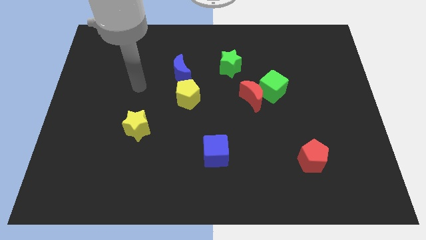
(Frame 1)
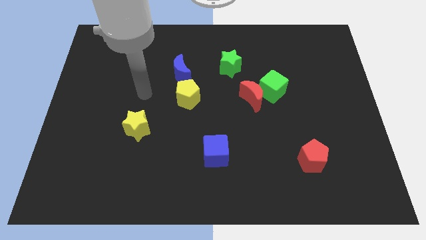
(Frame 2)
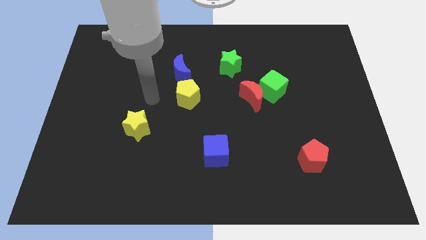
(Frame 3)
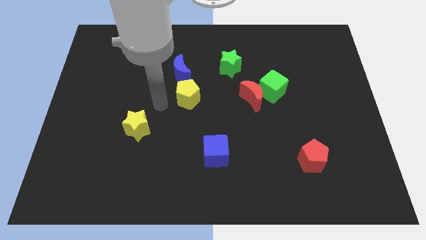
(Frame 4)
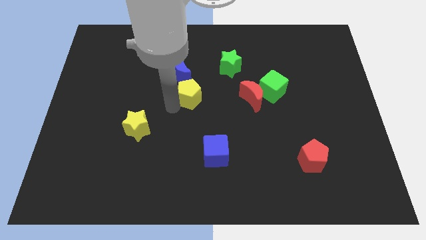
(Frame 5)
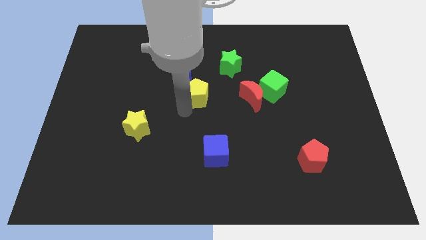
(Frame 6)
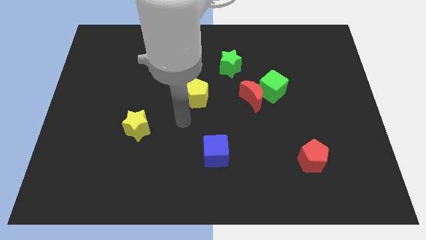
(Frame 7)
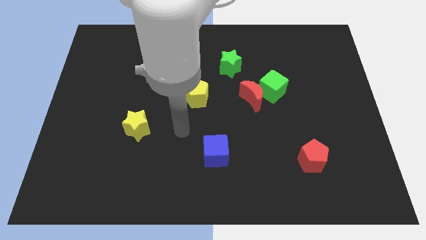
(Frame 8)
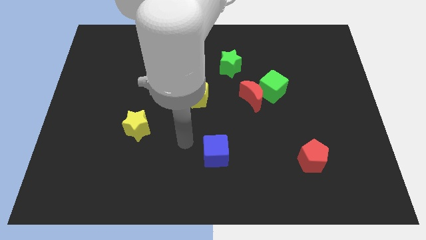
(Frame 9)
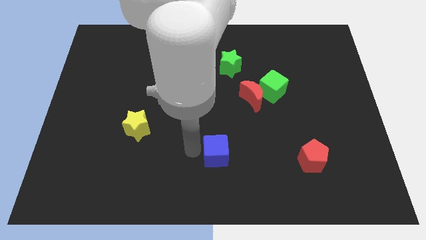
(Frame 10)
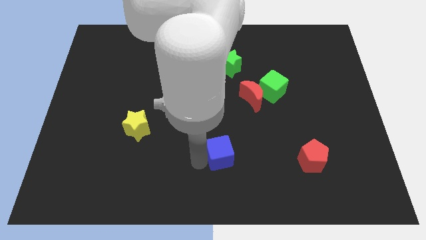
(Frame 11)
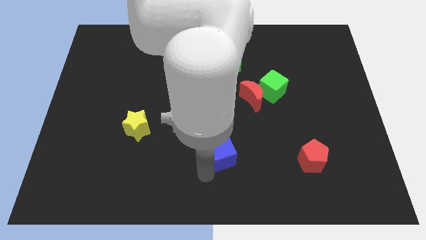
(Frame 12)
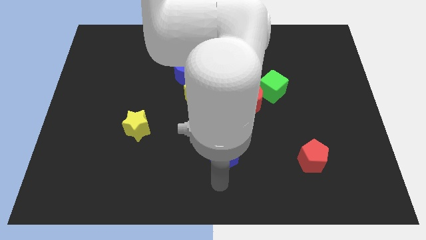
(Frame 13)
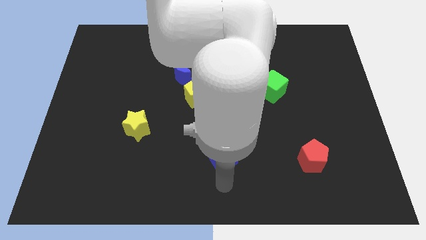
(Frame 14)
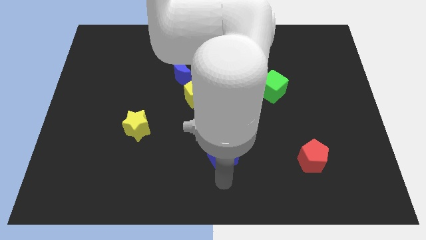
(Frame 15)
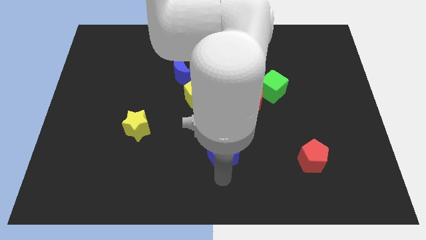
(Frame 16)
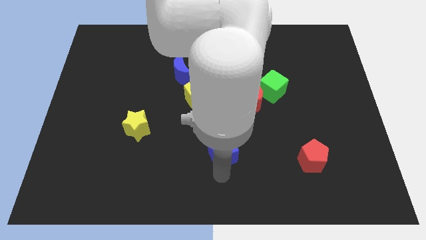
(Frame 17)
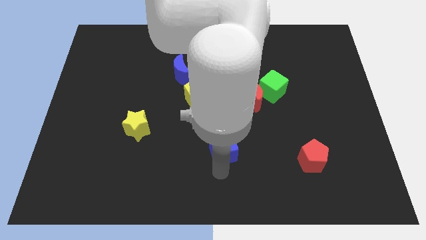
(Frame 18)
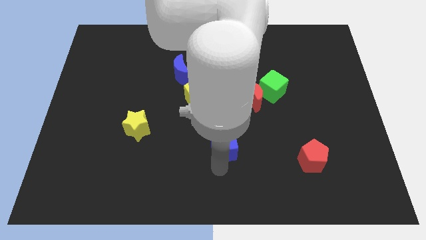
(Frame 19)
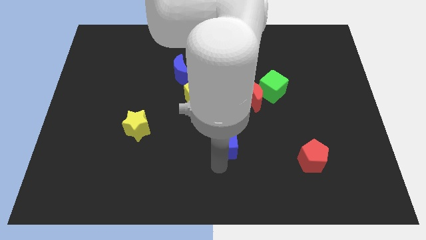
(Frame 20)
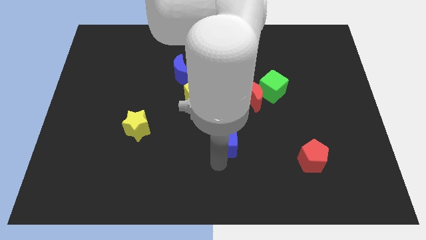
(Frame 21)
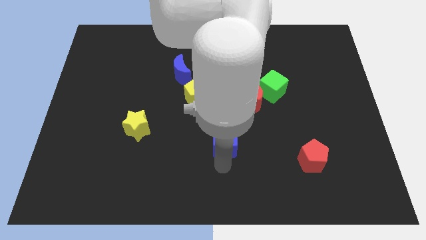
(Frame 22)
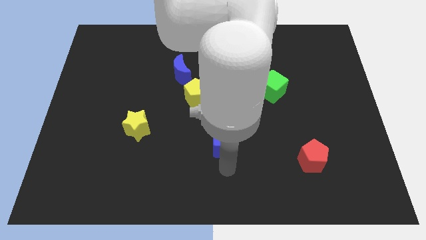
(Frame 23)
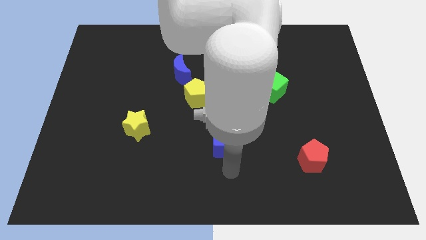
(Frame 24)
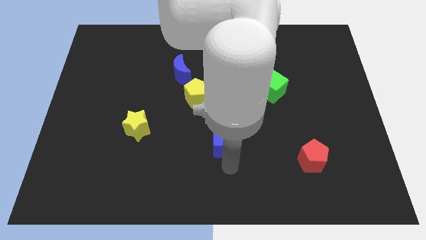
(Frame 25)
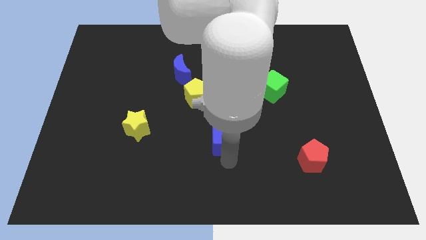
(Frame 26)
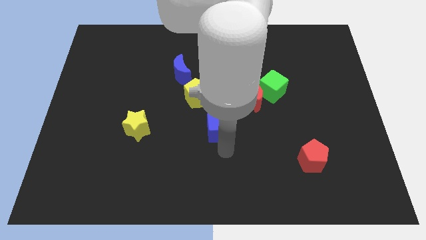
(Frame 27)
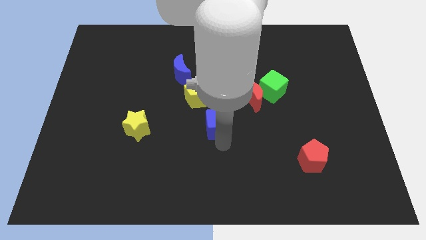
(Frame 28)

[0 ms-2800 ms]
slightly move the blue cube up

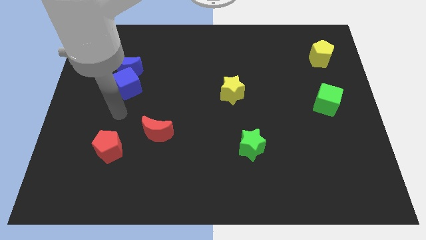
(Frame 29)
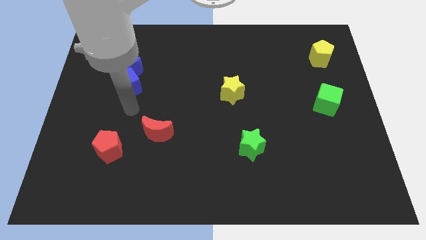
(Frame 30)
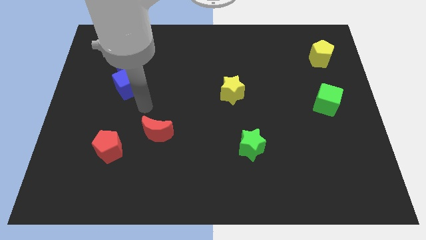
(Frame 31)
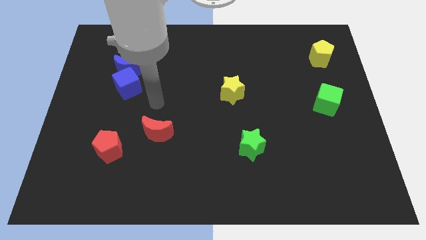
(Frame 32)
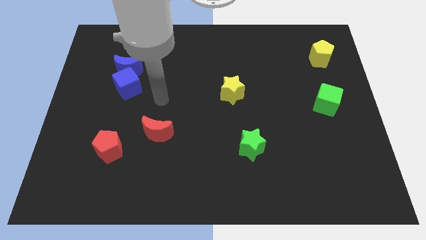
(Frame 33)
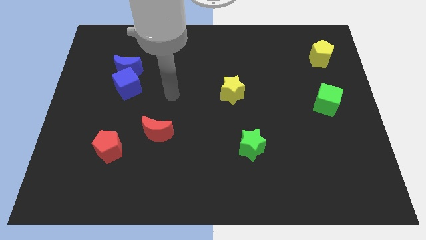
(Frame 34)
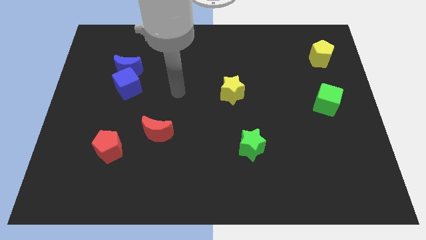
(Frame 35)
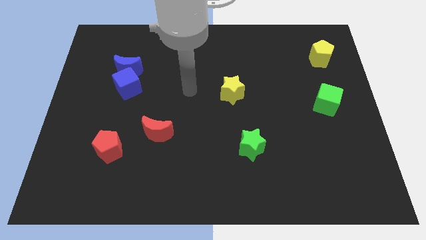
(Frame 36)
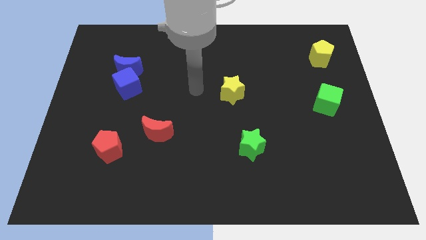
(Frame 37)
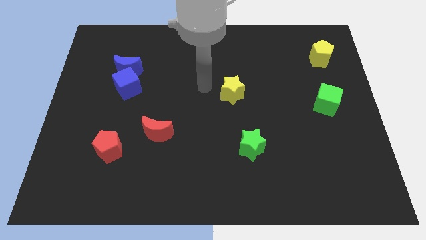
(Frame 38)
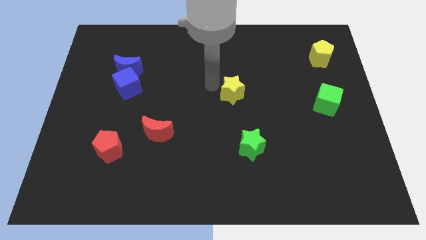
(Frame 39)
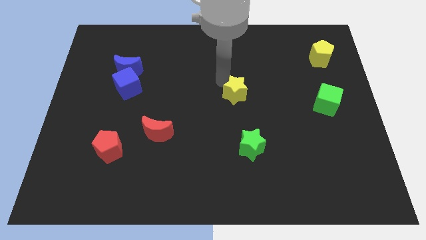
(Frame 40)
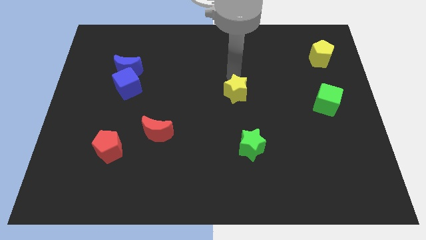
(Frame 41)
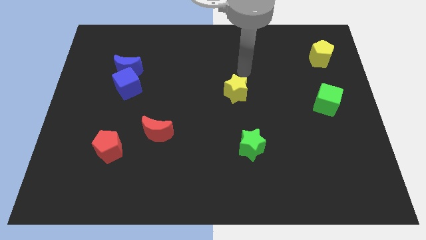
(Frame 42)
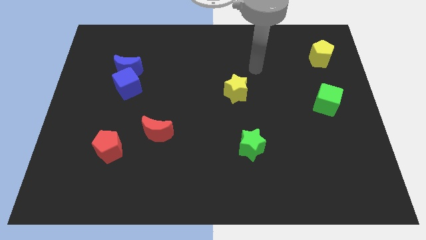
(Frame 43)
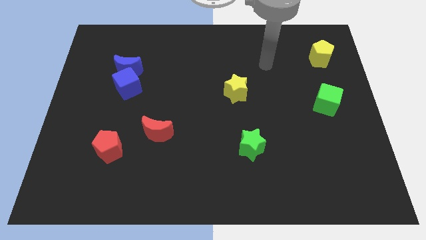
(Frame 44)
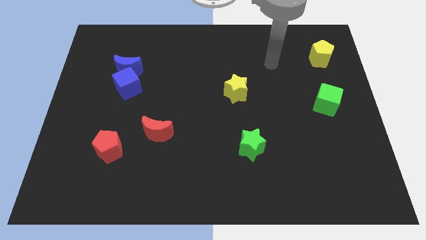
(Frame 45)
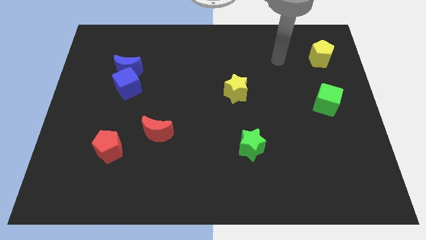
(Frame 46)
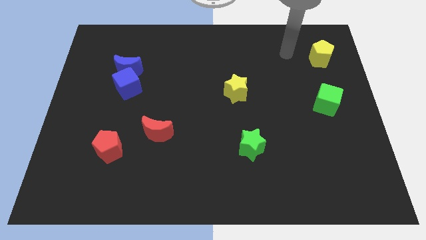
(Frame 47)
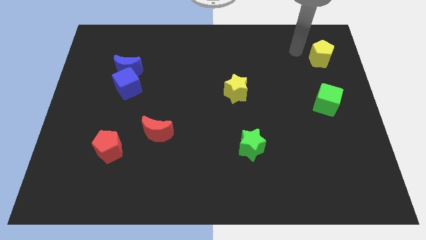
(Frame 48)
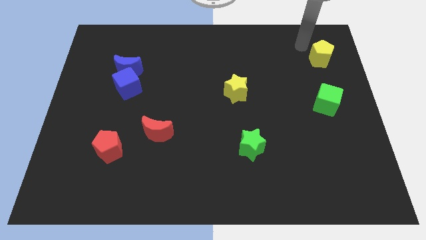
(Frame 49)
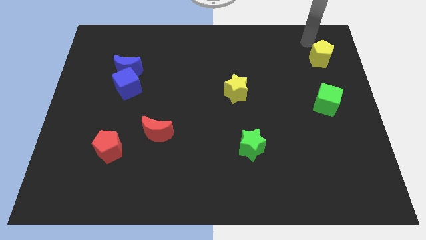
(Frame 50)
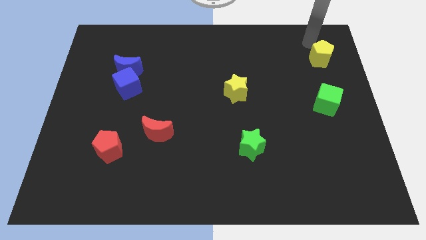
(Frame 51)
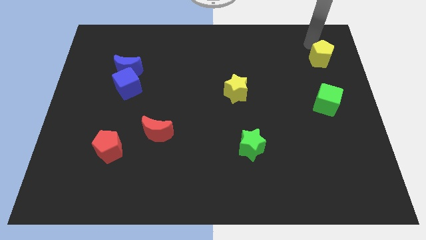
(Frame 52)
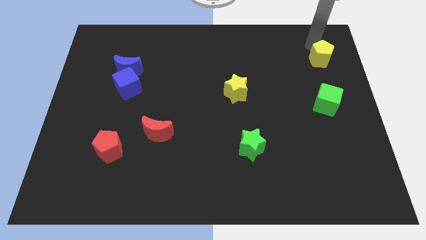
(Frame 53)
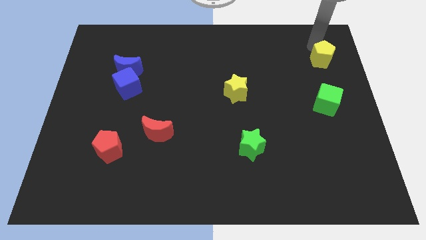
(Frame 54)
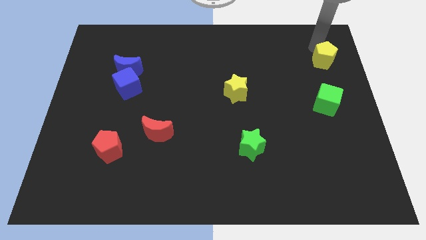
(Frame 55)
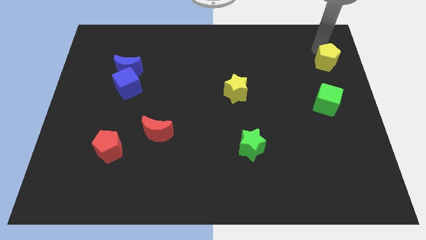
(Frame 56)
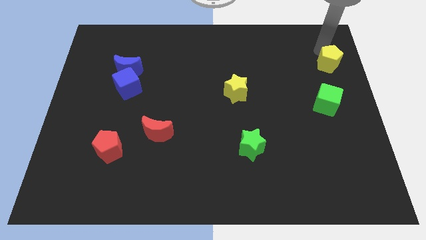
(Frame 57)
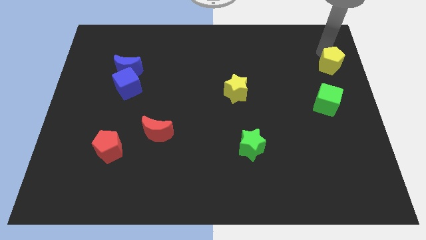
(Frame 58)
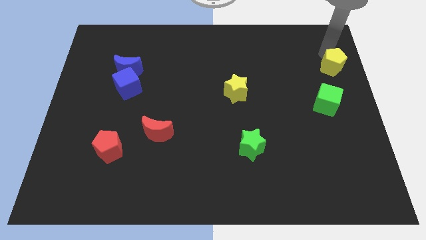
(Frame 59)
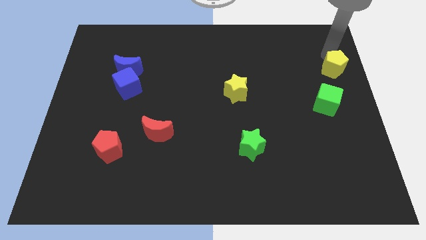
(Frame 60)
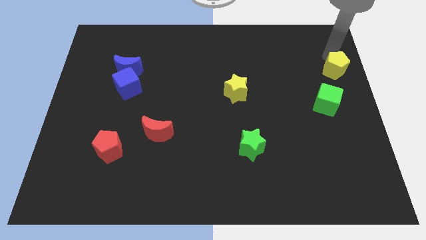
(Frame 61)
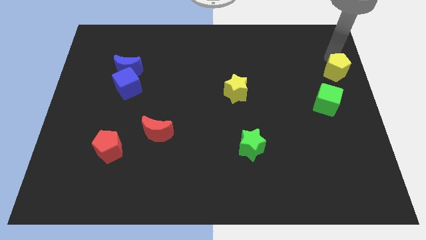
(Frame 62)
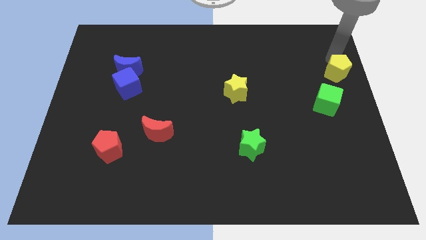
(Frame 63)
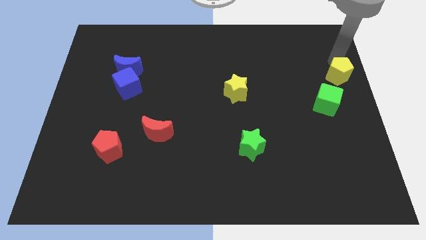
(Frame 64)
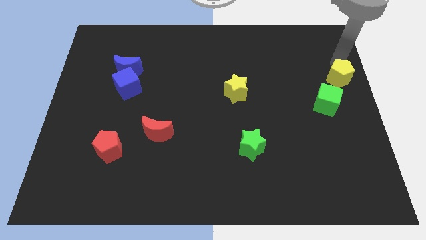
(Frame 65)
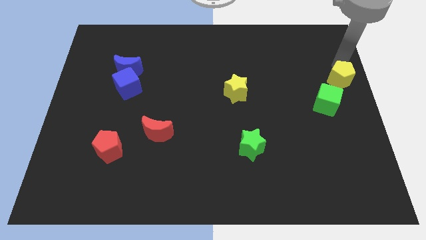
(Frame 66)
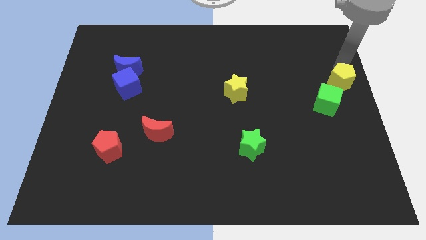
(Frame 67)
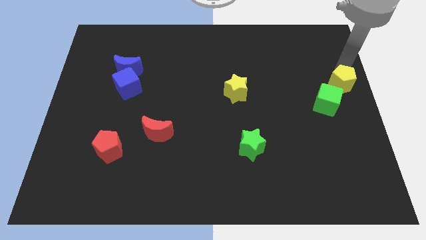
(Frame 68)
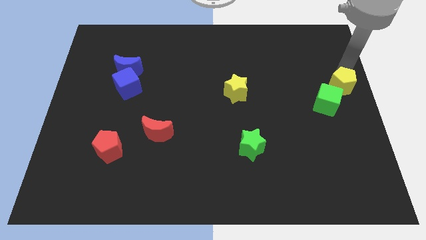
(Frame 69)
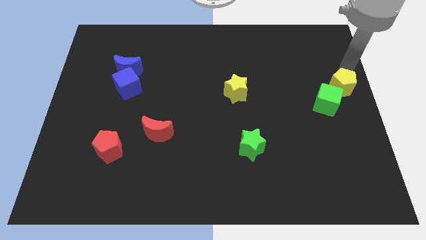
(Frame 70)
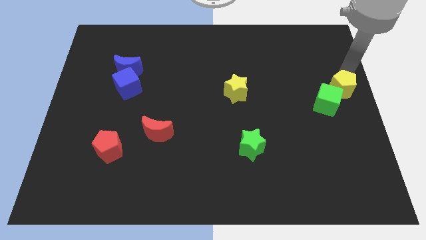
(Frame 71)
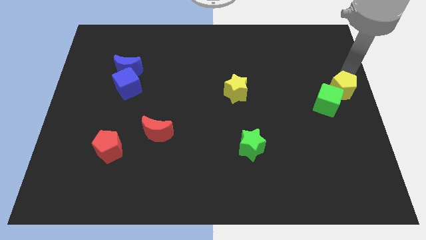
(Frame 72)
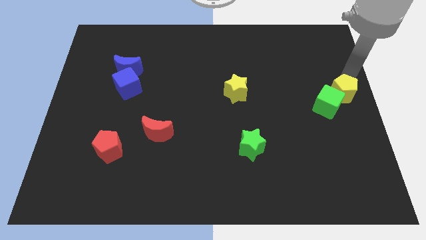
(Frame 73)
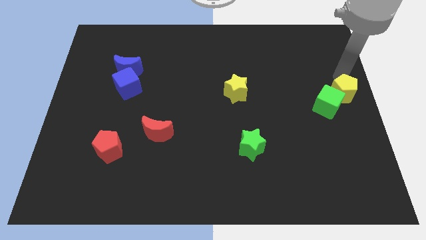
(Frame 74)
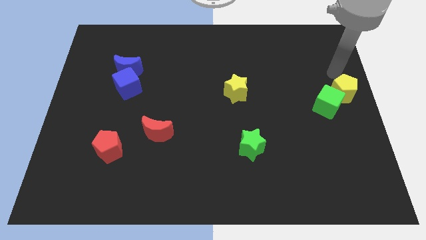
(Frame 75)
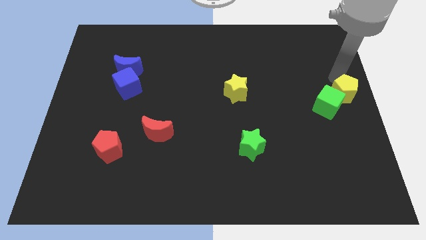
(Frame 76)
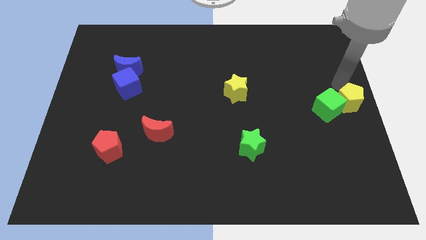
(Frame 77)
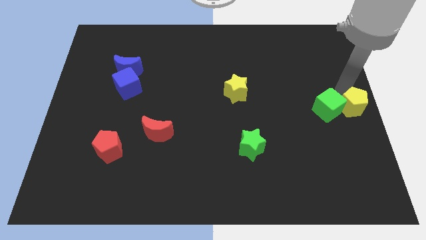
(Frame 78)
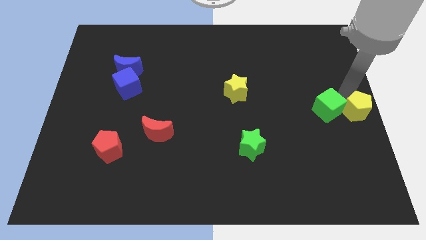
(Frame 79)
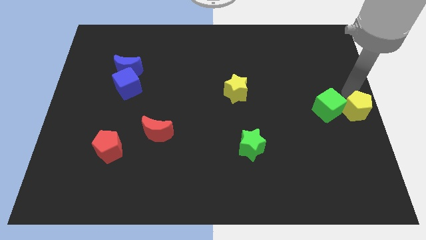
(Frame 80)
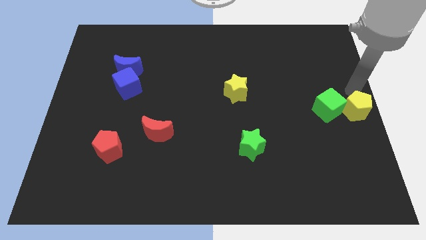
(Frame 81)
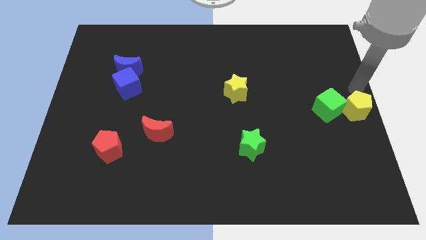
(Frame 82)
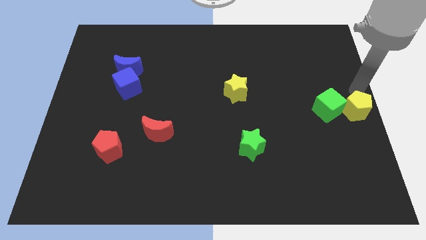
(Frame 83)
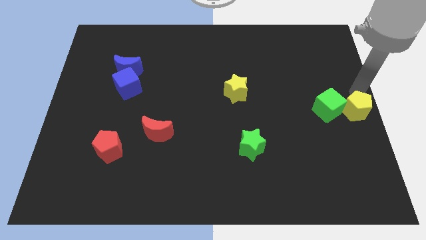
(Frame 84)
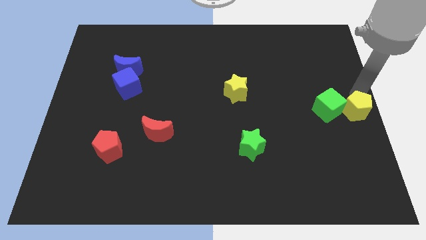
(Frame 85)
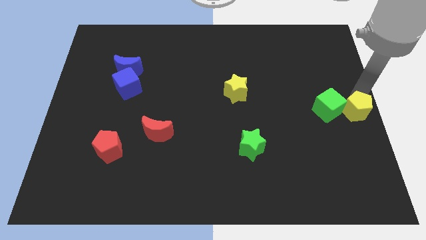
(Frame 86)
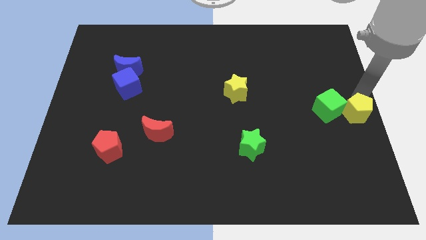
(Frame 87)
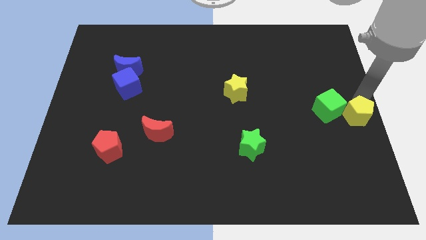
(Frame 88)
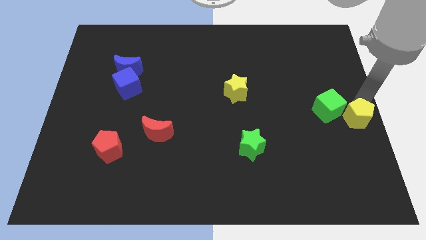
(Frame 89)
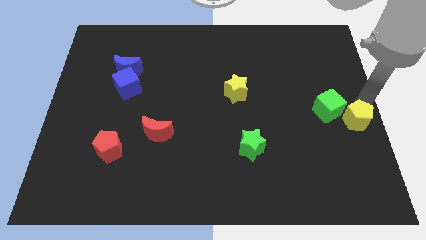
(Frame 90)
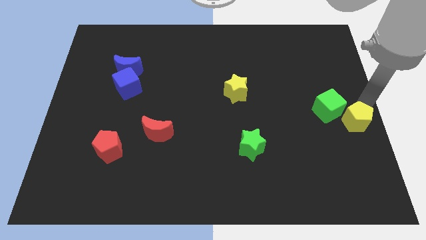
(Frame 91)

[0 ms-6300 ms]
move the yellow pentagon downwards
